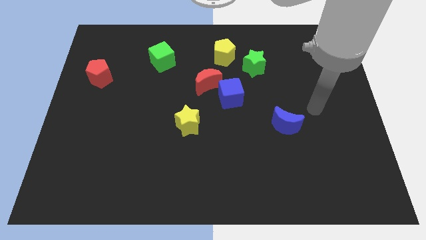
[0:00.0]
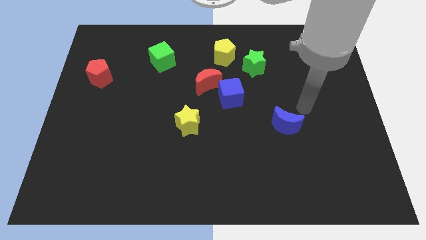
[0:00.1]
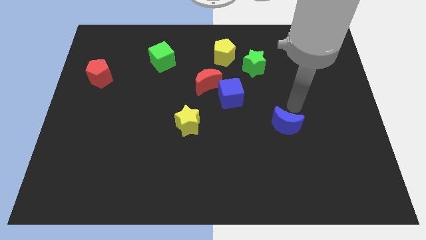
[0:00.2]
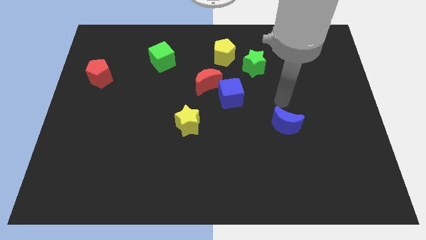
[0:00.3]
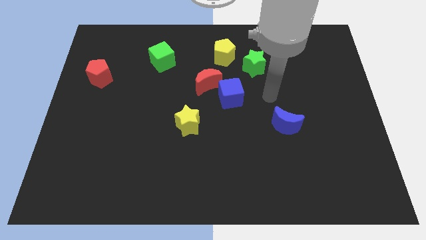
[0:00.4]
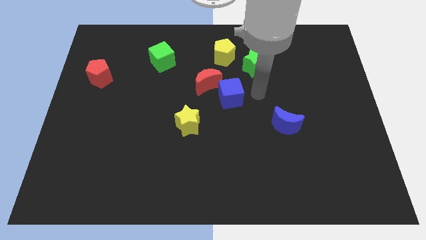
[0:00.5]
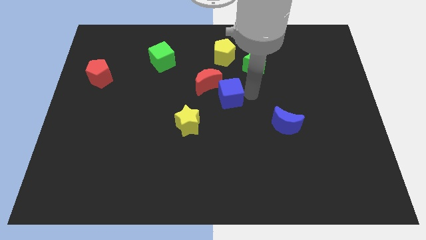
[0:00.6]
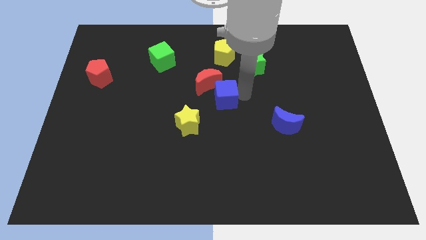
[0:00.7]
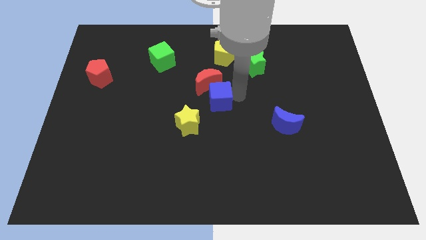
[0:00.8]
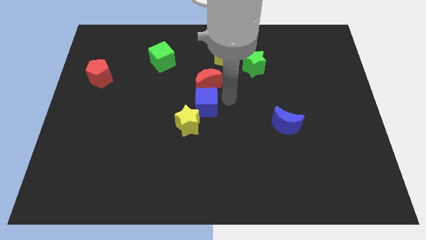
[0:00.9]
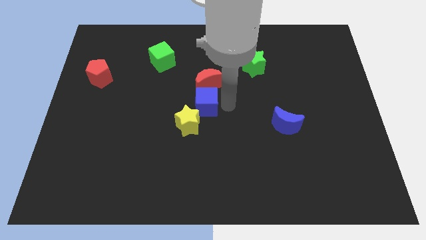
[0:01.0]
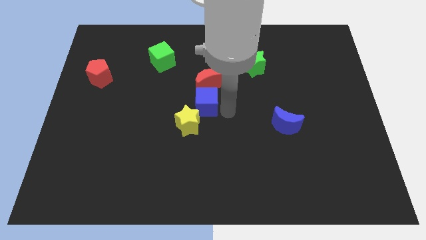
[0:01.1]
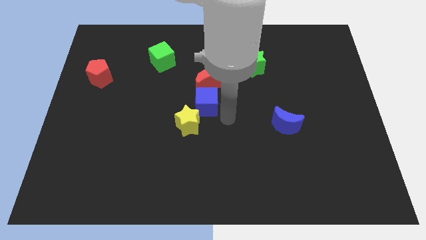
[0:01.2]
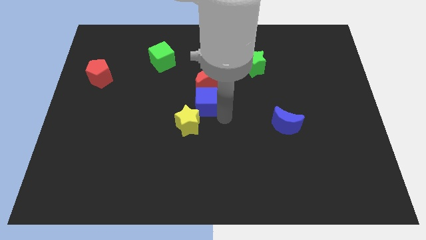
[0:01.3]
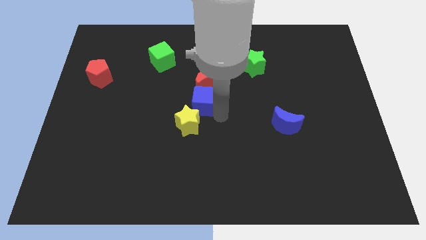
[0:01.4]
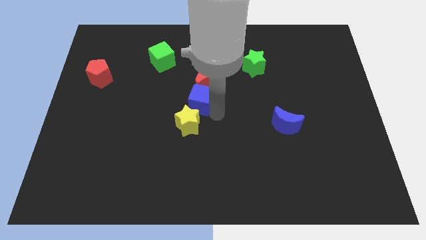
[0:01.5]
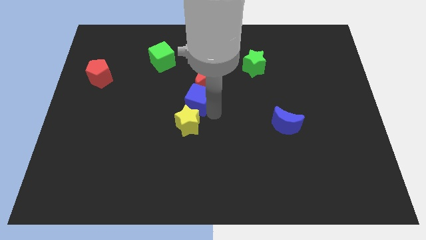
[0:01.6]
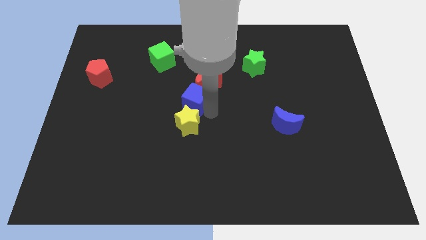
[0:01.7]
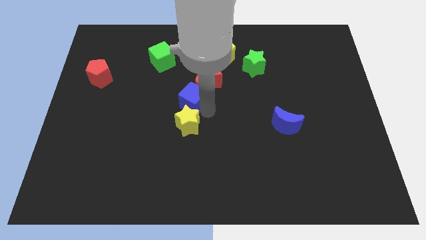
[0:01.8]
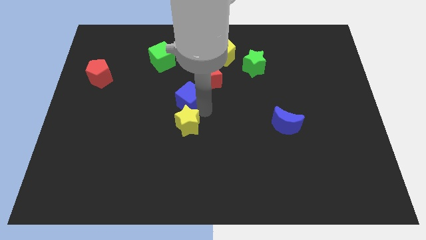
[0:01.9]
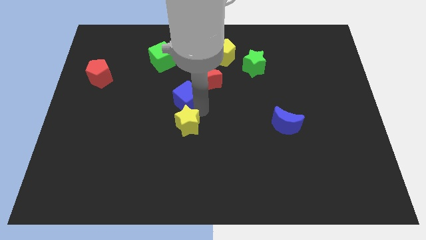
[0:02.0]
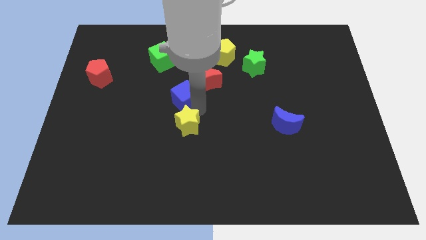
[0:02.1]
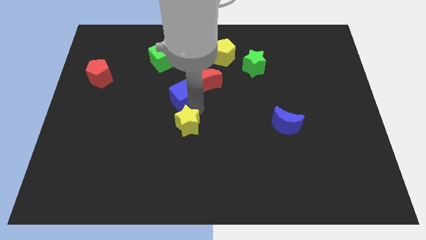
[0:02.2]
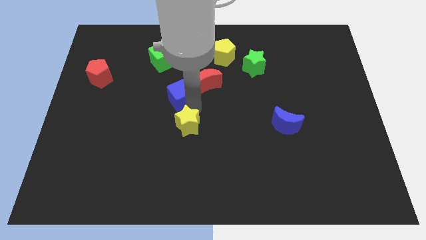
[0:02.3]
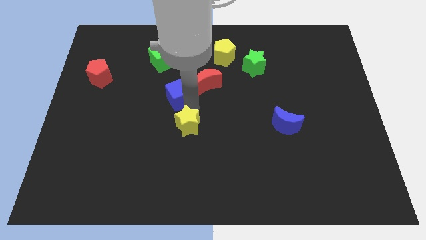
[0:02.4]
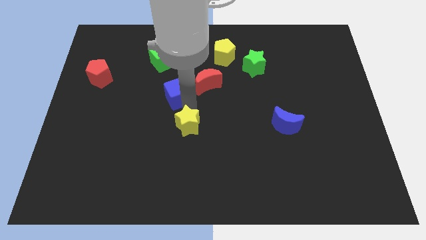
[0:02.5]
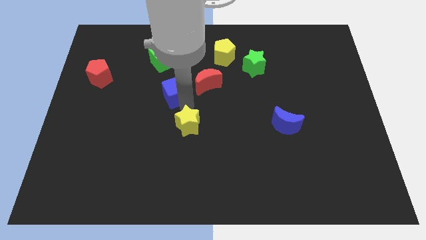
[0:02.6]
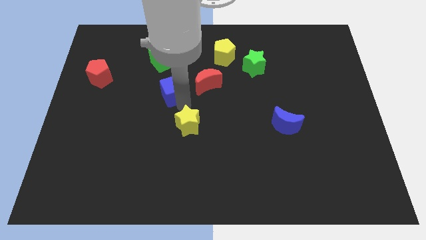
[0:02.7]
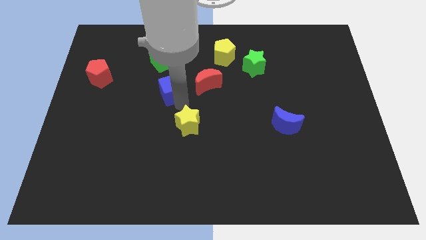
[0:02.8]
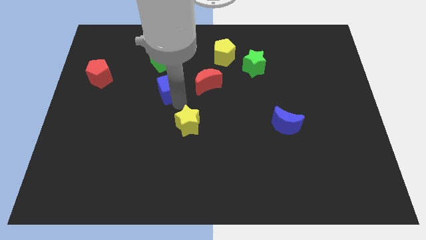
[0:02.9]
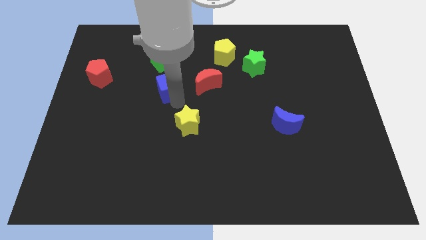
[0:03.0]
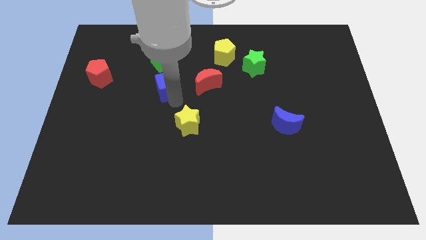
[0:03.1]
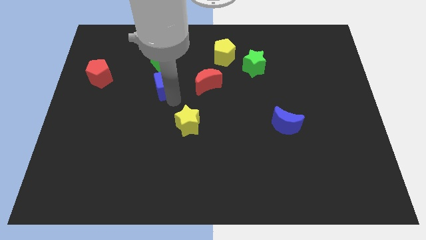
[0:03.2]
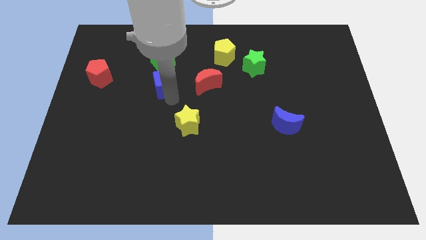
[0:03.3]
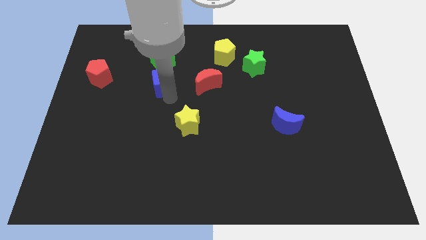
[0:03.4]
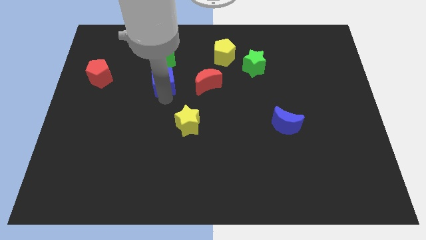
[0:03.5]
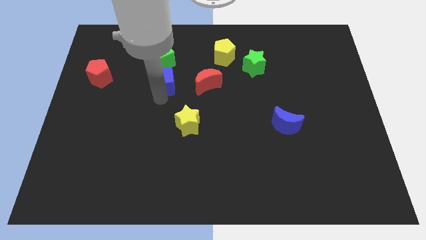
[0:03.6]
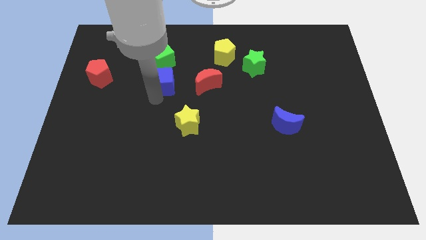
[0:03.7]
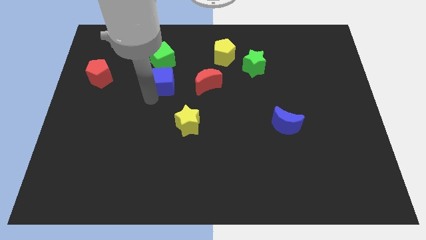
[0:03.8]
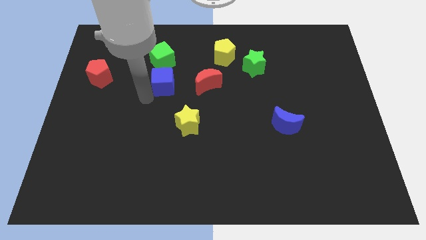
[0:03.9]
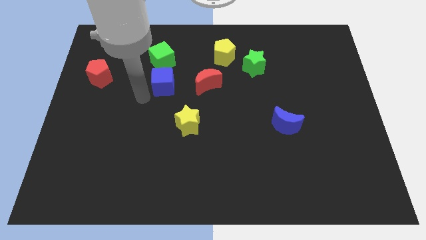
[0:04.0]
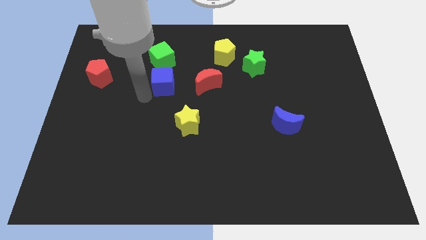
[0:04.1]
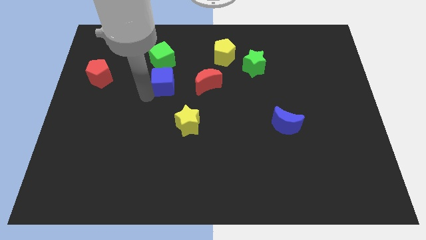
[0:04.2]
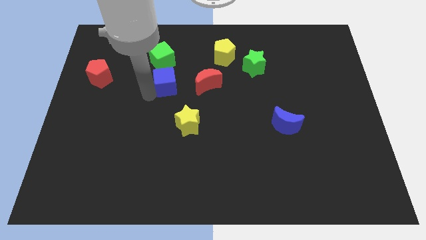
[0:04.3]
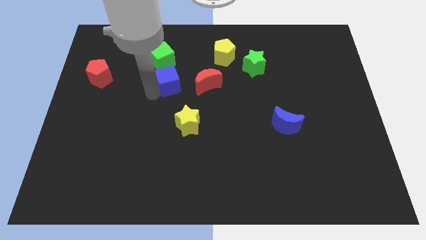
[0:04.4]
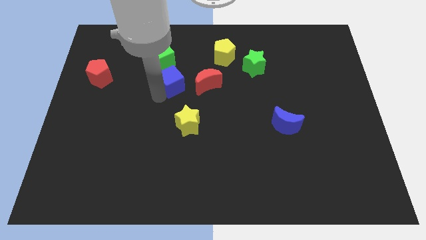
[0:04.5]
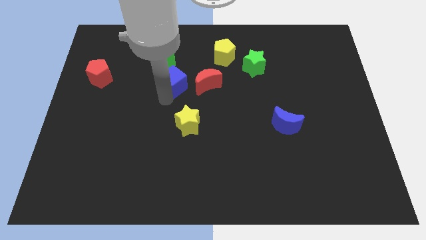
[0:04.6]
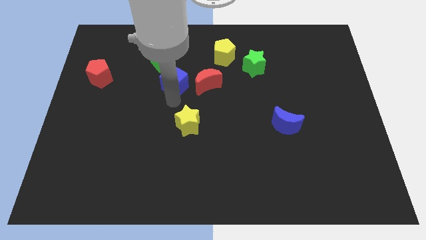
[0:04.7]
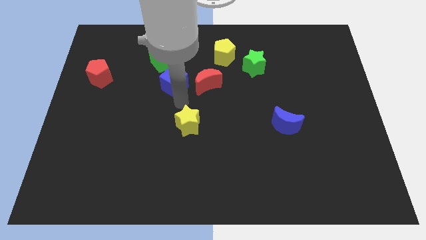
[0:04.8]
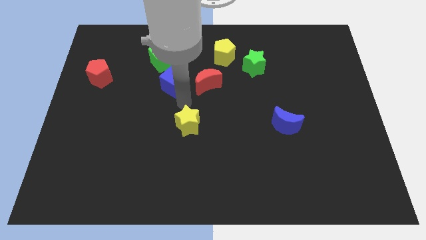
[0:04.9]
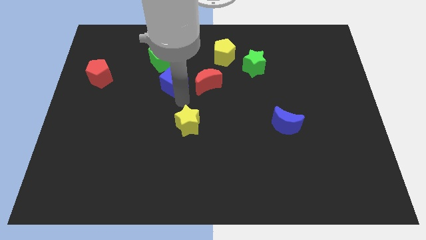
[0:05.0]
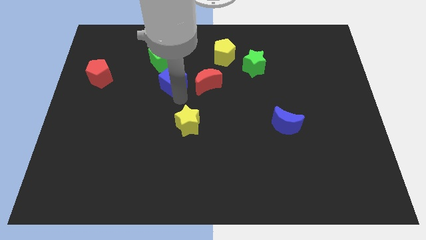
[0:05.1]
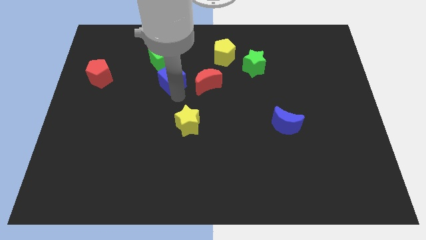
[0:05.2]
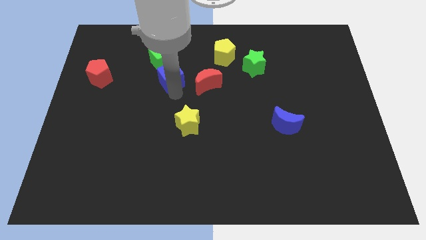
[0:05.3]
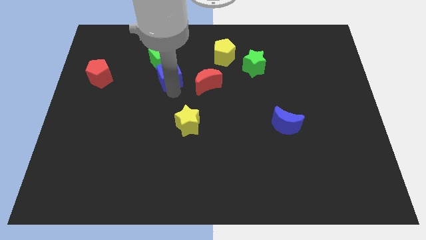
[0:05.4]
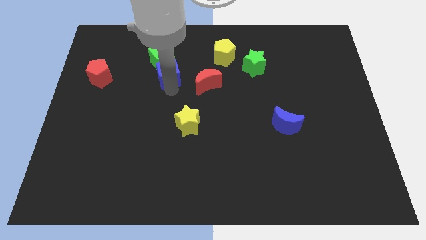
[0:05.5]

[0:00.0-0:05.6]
push the blue cube close to the green cube

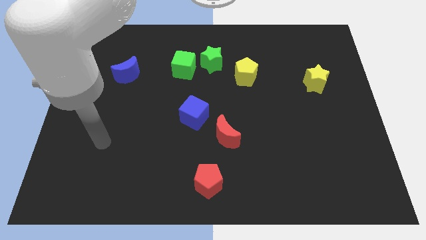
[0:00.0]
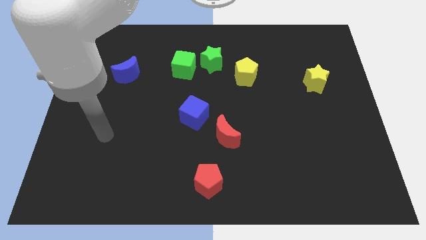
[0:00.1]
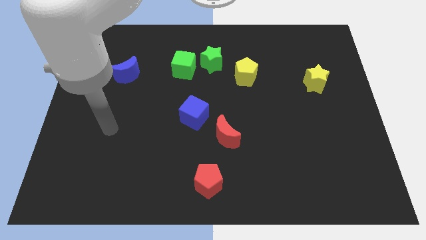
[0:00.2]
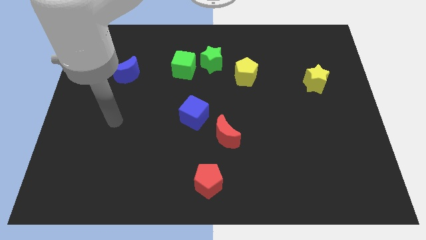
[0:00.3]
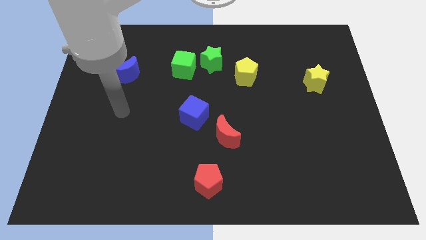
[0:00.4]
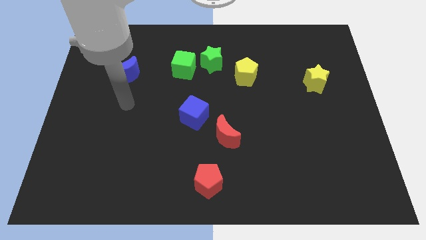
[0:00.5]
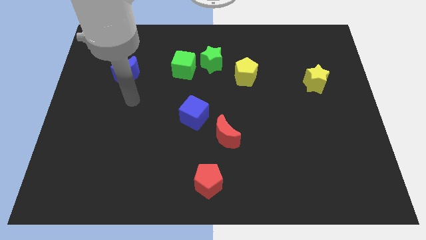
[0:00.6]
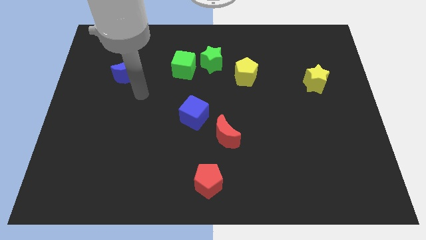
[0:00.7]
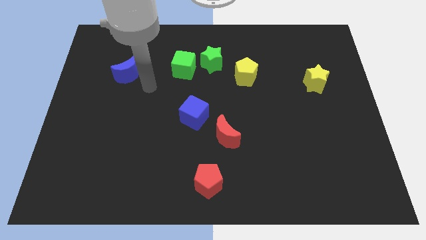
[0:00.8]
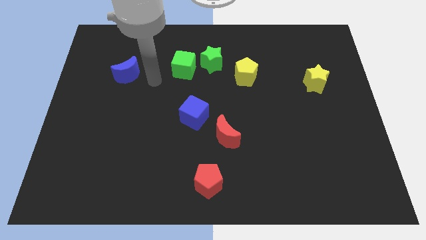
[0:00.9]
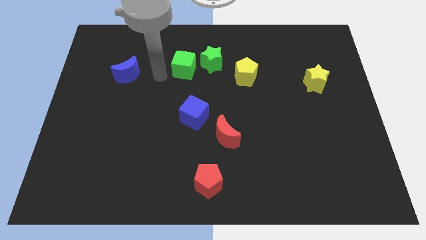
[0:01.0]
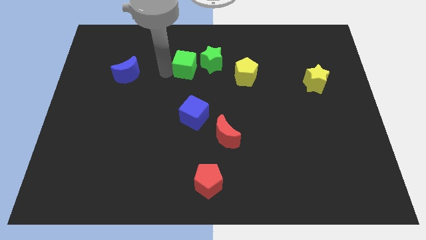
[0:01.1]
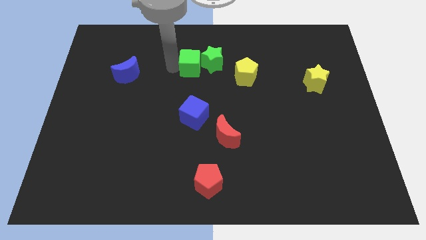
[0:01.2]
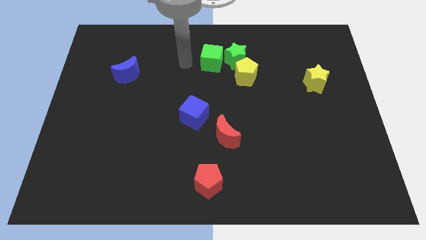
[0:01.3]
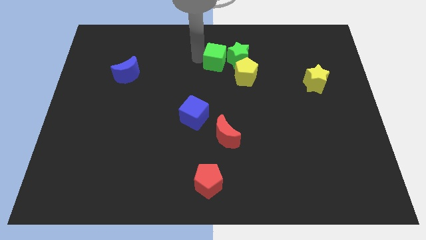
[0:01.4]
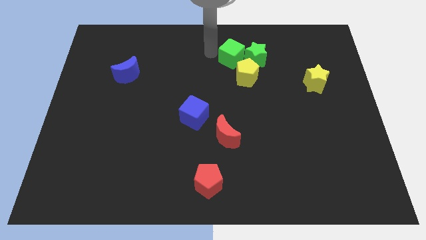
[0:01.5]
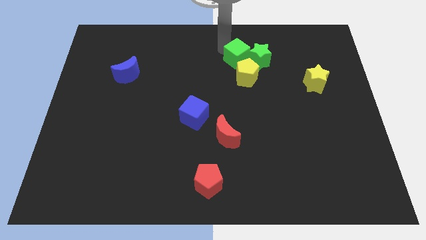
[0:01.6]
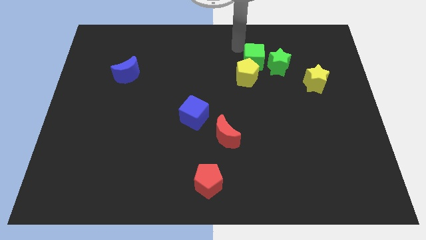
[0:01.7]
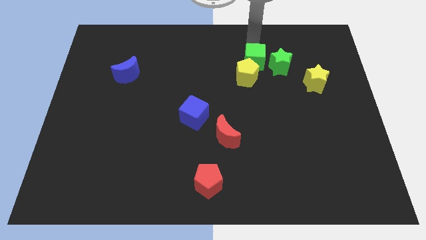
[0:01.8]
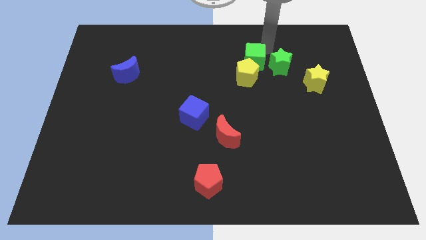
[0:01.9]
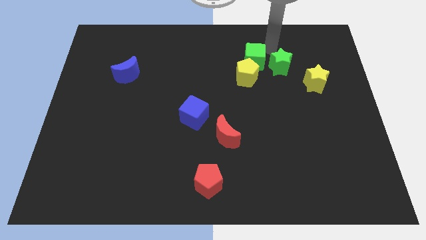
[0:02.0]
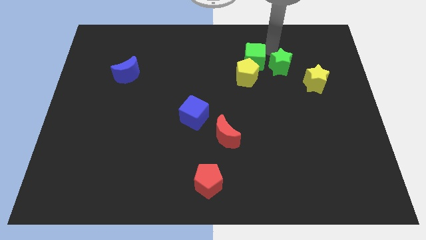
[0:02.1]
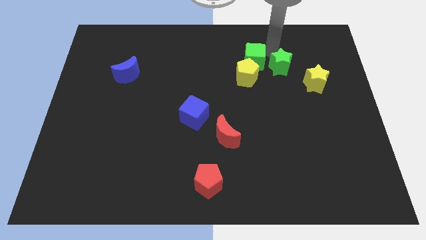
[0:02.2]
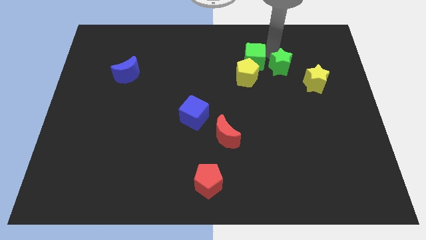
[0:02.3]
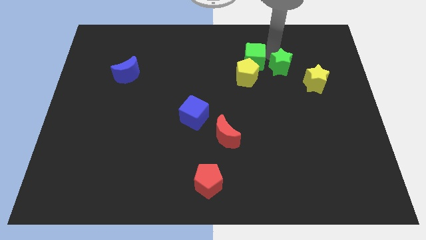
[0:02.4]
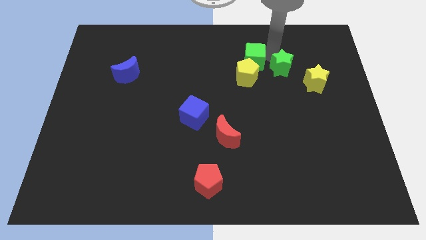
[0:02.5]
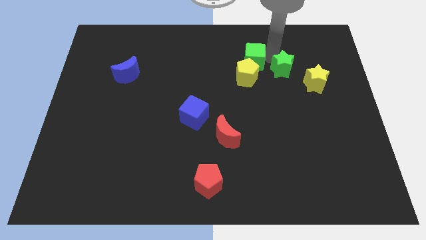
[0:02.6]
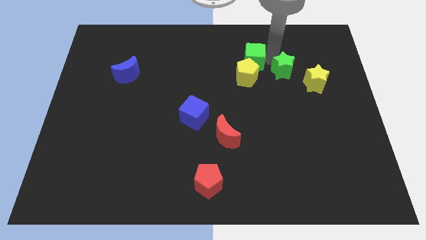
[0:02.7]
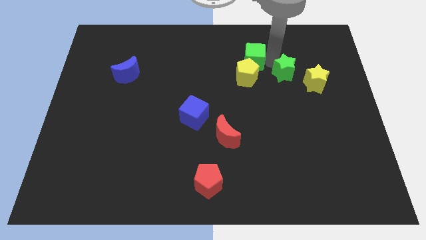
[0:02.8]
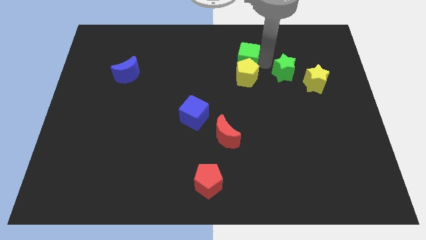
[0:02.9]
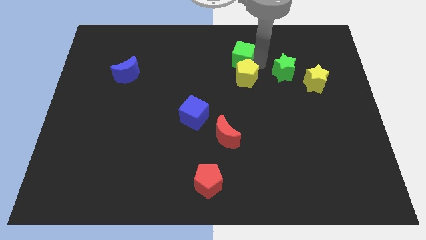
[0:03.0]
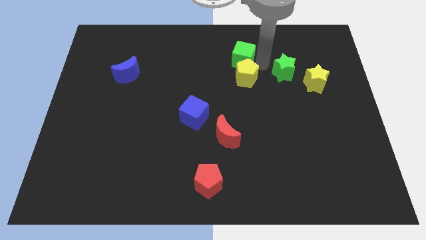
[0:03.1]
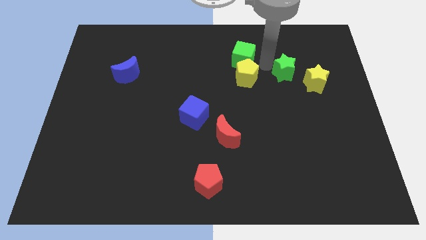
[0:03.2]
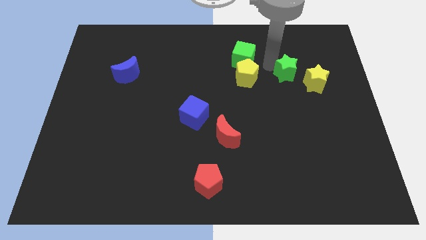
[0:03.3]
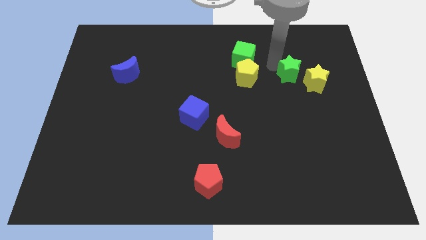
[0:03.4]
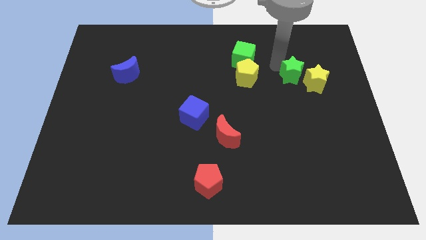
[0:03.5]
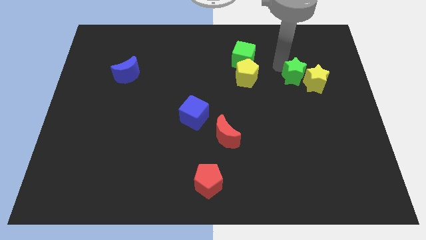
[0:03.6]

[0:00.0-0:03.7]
slide the green star close to the yellow star
